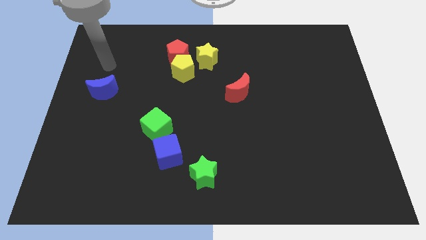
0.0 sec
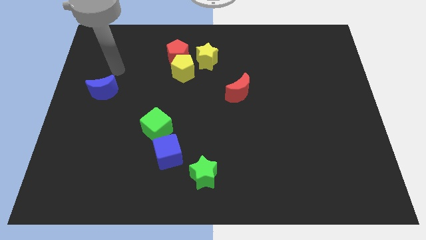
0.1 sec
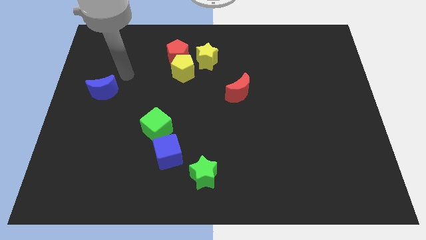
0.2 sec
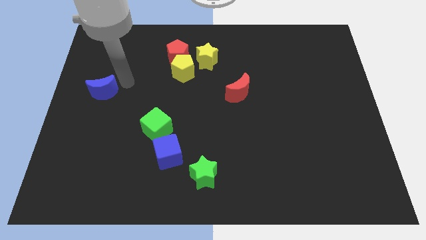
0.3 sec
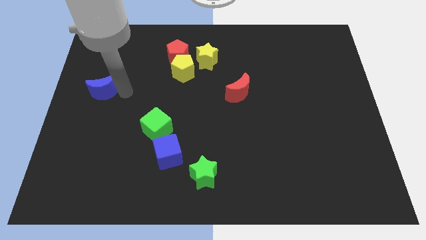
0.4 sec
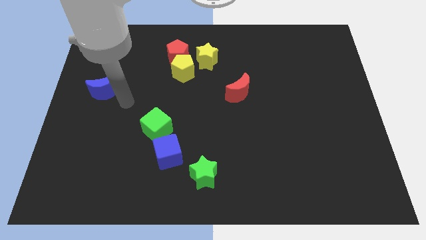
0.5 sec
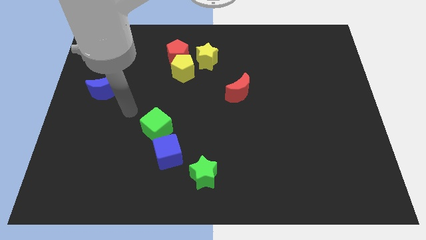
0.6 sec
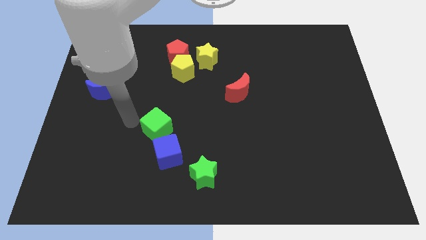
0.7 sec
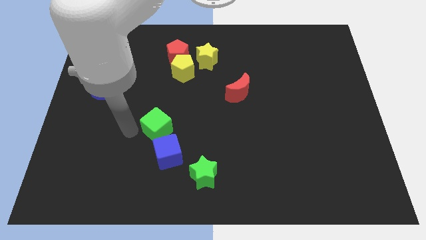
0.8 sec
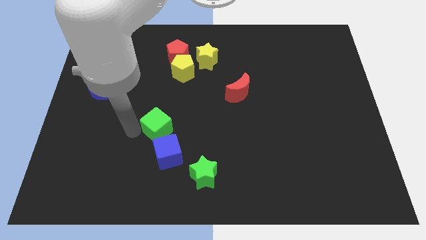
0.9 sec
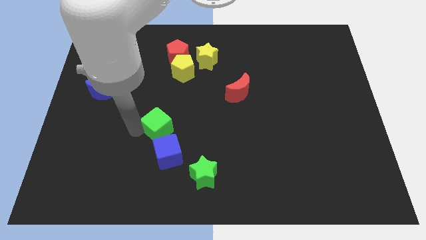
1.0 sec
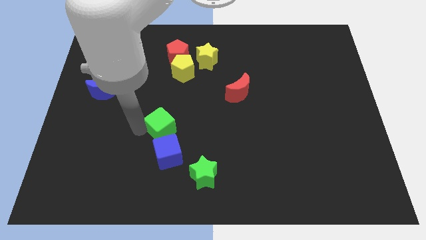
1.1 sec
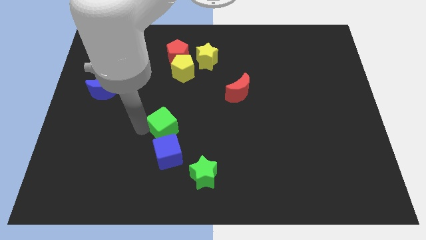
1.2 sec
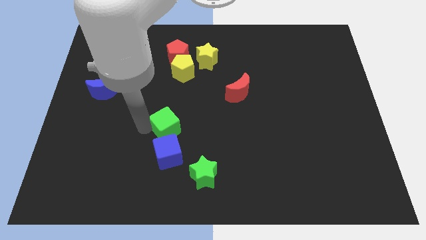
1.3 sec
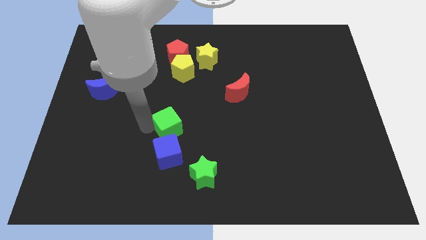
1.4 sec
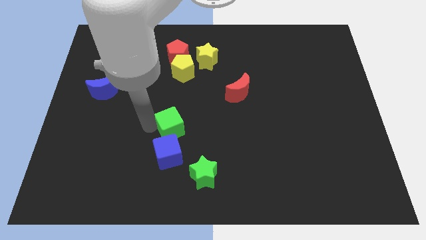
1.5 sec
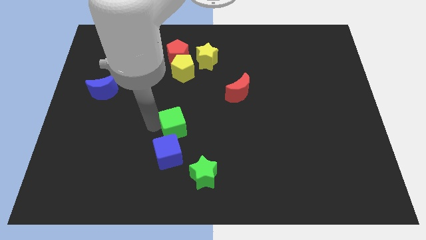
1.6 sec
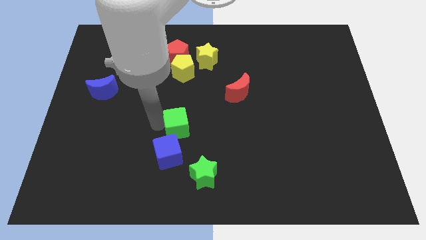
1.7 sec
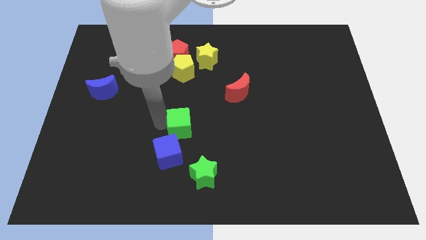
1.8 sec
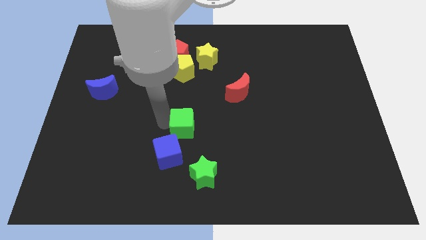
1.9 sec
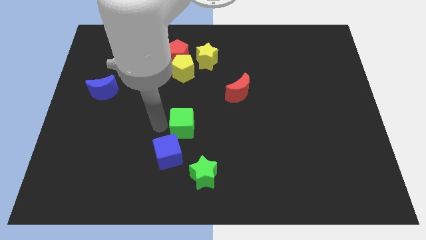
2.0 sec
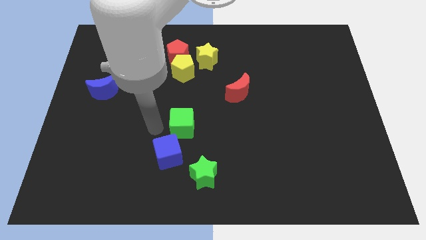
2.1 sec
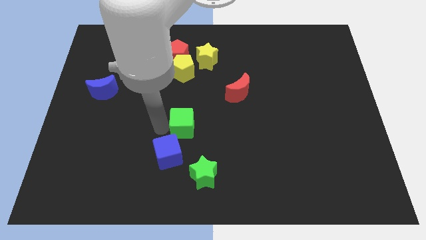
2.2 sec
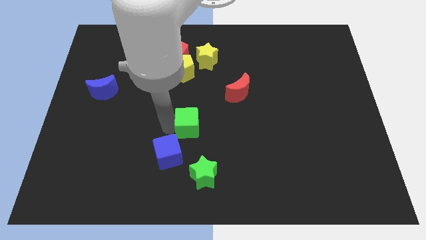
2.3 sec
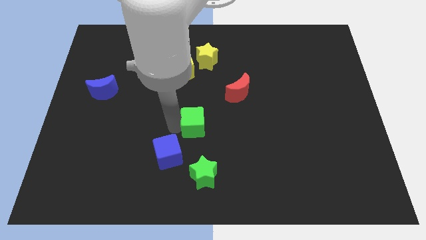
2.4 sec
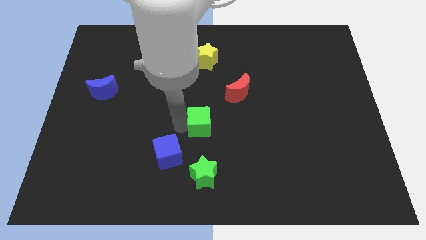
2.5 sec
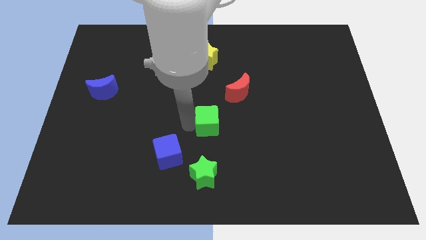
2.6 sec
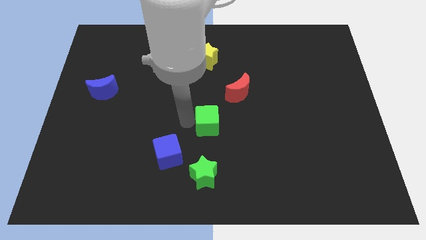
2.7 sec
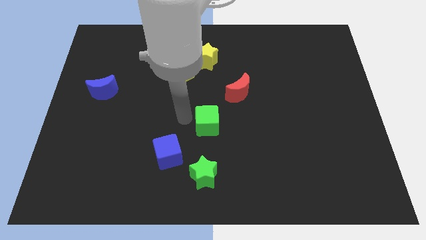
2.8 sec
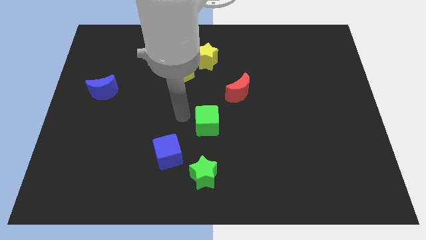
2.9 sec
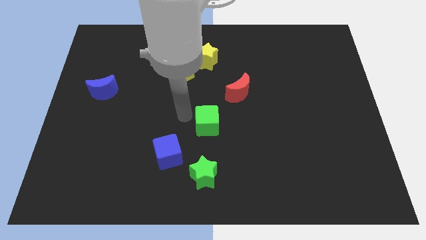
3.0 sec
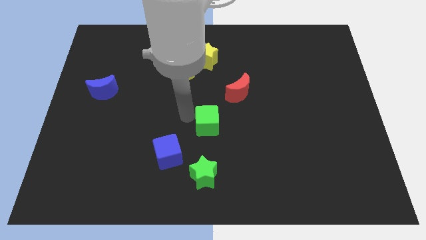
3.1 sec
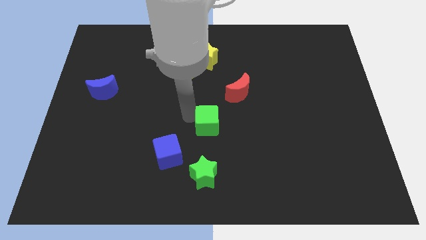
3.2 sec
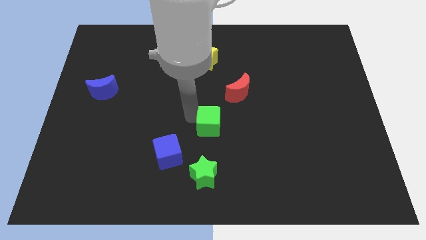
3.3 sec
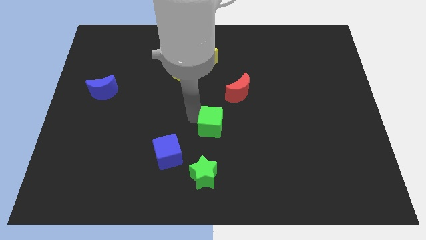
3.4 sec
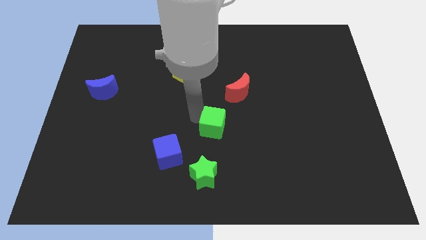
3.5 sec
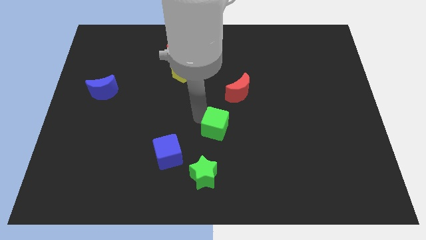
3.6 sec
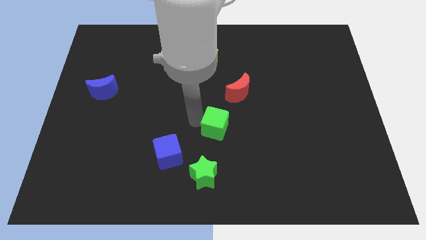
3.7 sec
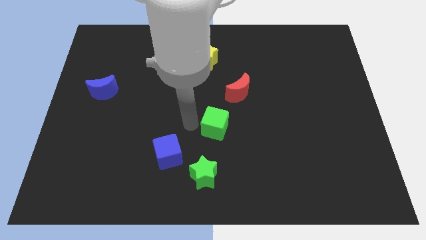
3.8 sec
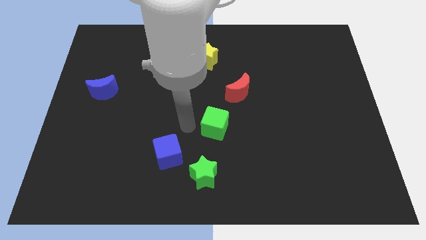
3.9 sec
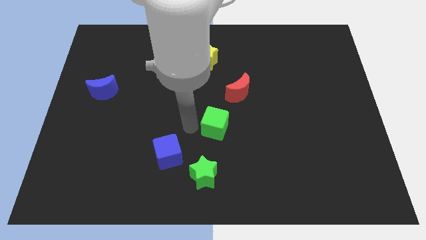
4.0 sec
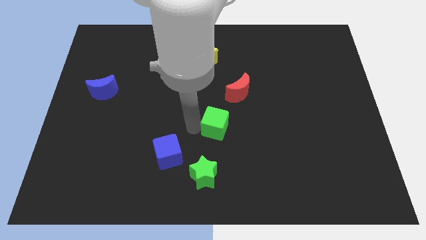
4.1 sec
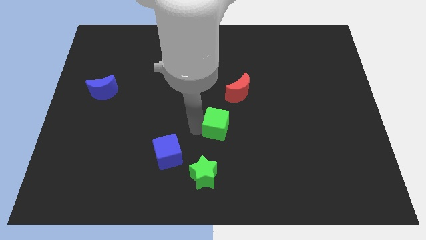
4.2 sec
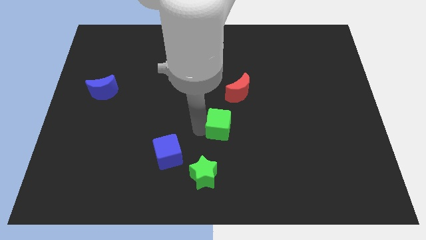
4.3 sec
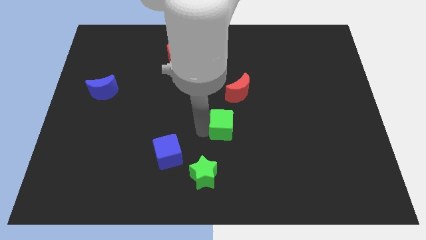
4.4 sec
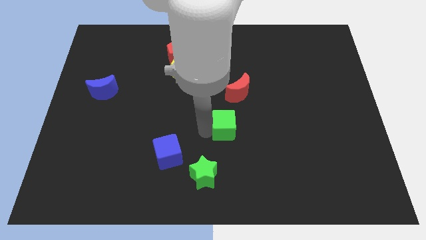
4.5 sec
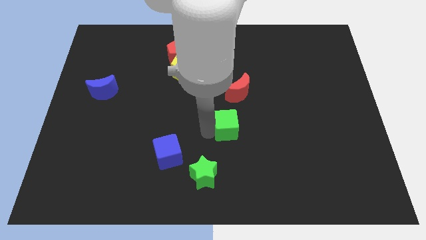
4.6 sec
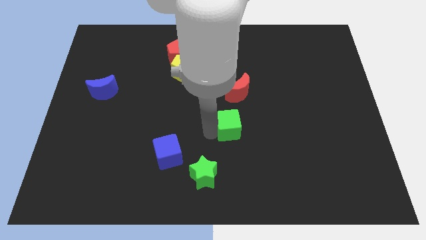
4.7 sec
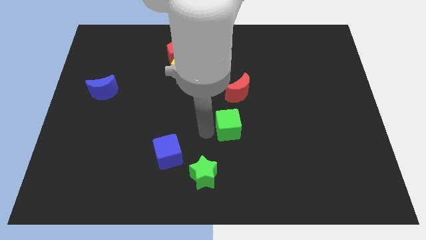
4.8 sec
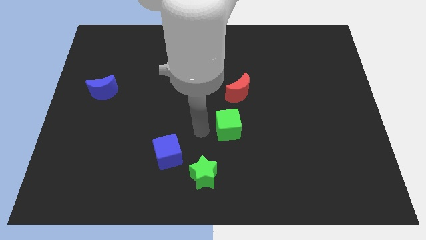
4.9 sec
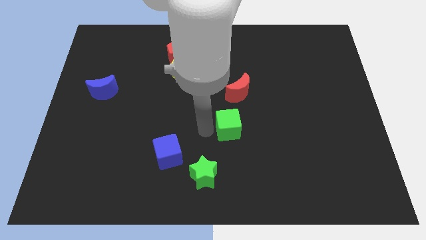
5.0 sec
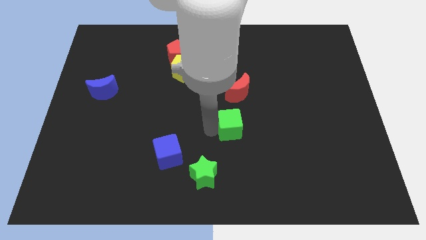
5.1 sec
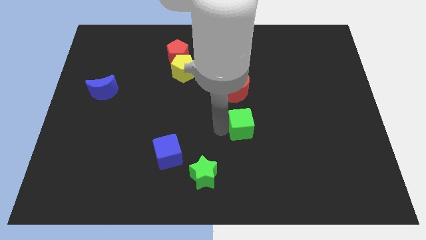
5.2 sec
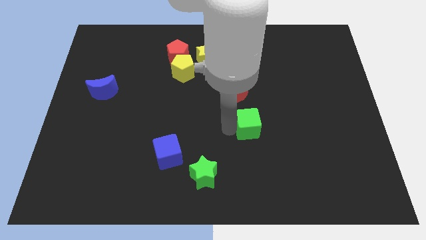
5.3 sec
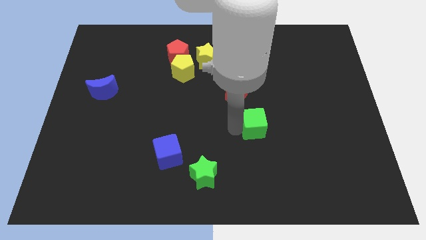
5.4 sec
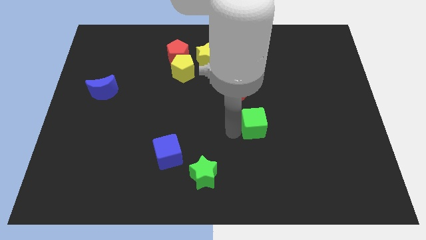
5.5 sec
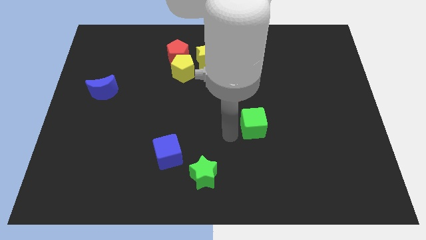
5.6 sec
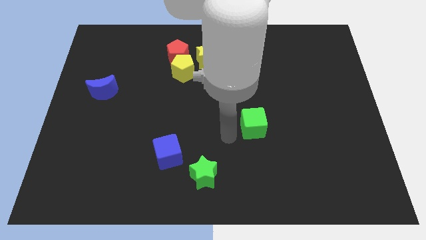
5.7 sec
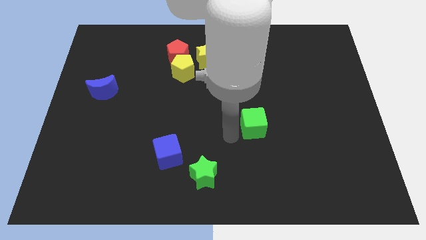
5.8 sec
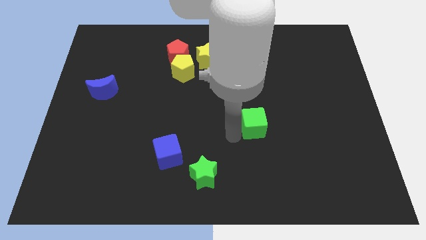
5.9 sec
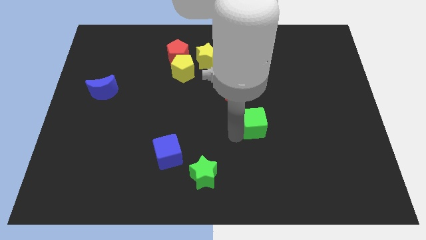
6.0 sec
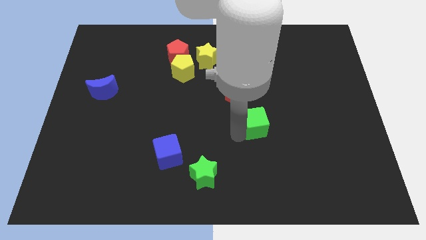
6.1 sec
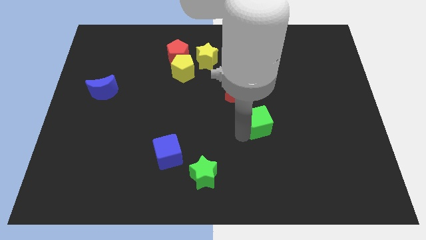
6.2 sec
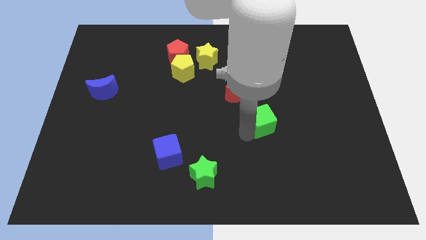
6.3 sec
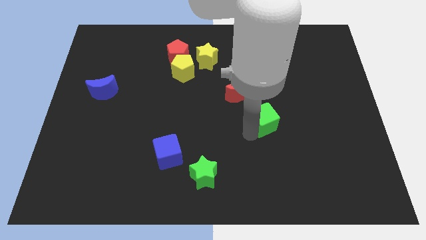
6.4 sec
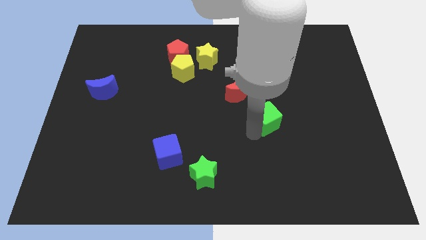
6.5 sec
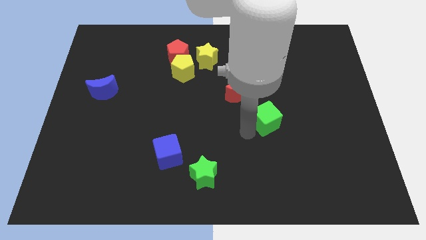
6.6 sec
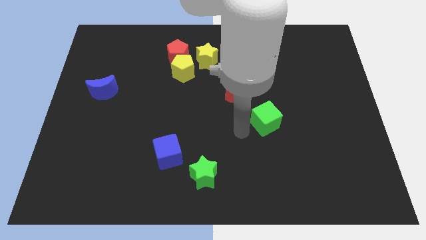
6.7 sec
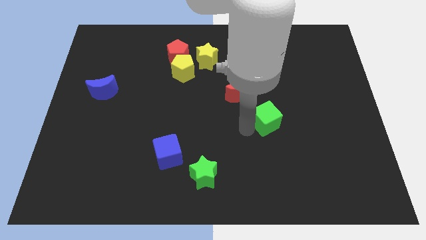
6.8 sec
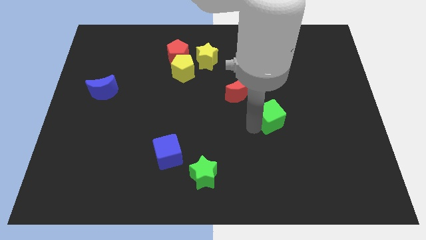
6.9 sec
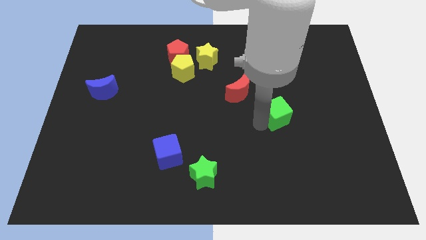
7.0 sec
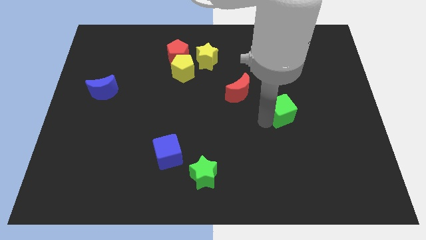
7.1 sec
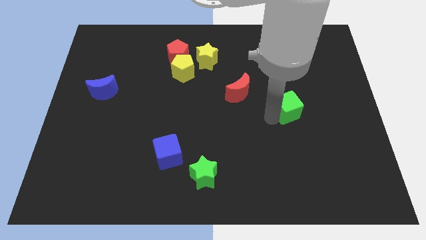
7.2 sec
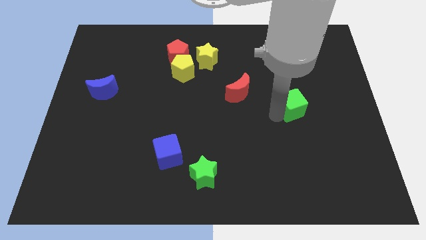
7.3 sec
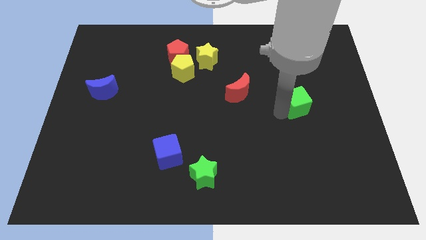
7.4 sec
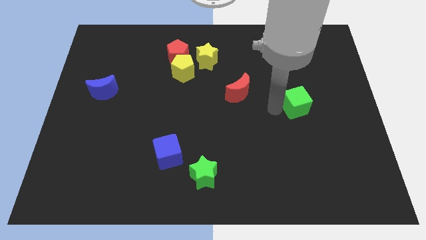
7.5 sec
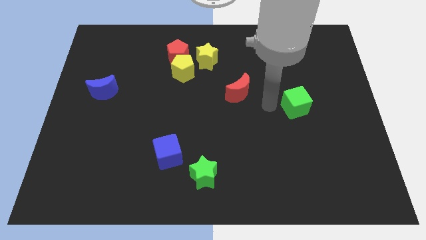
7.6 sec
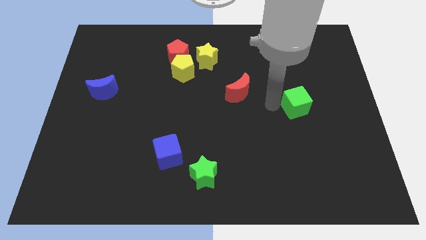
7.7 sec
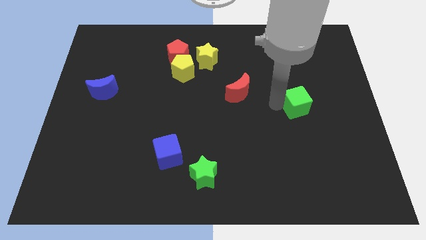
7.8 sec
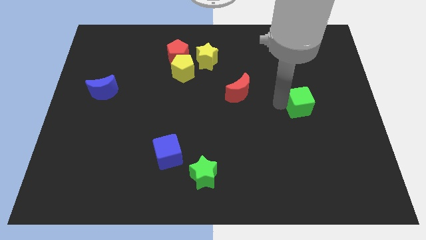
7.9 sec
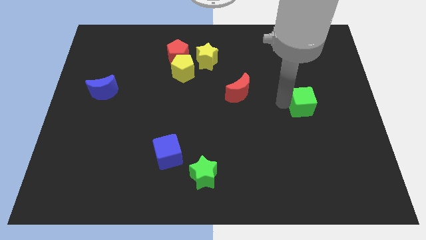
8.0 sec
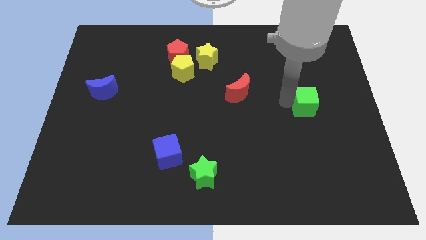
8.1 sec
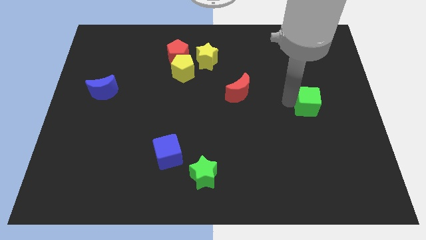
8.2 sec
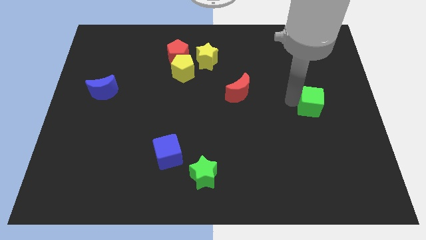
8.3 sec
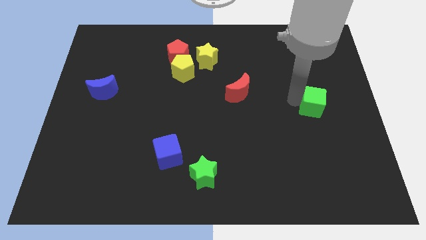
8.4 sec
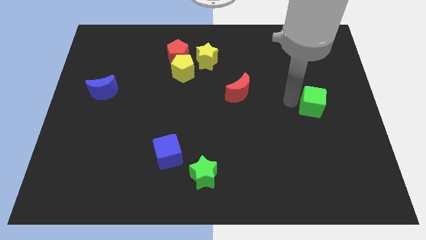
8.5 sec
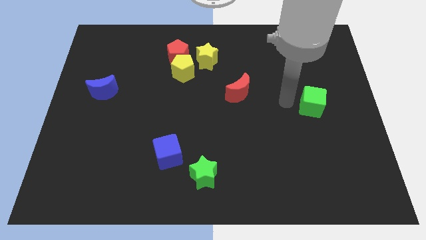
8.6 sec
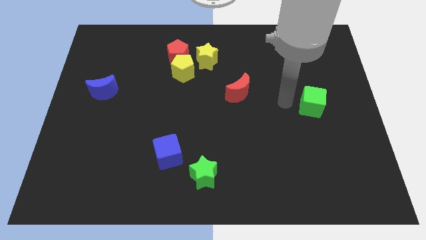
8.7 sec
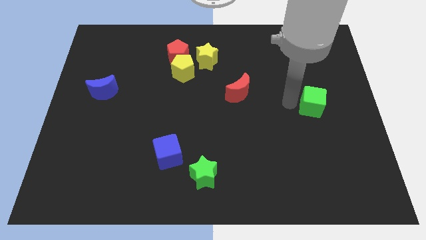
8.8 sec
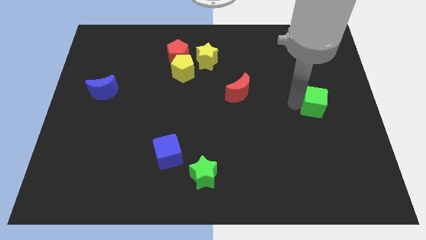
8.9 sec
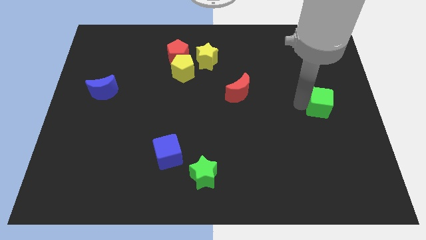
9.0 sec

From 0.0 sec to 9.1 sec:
slide the green cube to the center right
